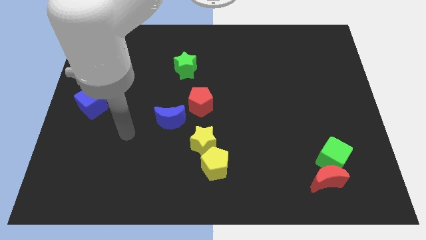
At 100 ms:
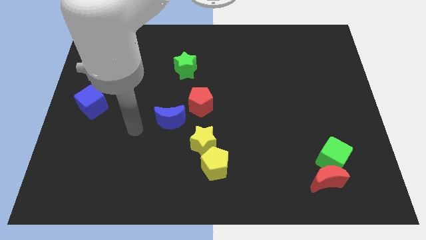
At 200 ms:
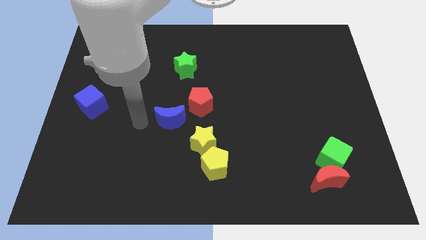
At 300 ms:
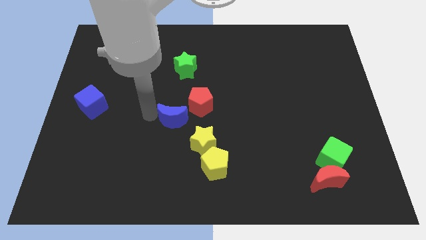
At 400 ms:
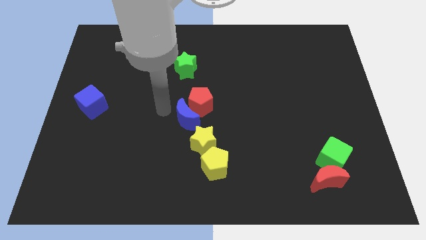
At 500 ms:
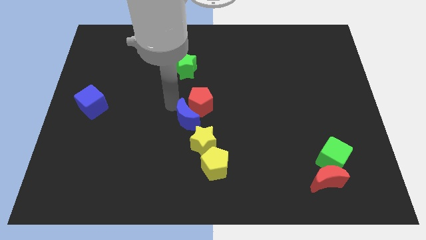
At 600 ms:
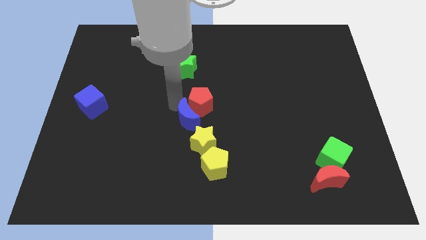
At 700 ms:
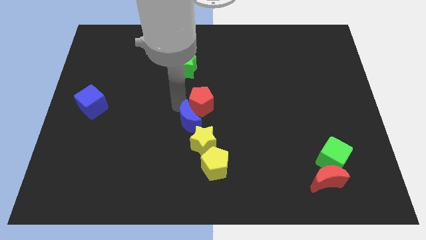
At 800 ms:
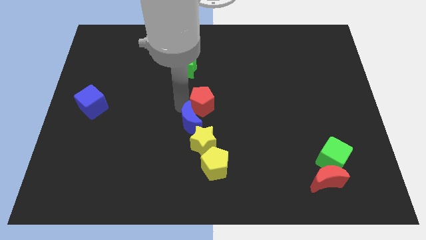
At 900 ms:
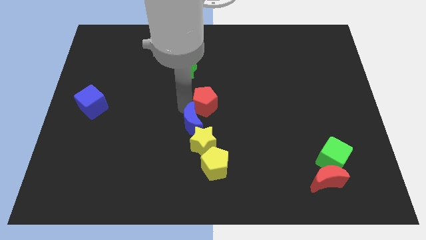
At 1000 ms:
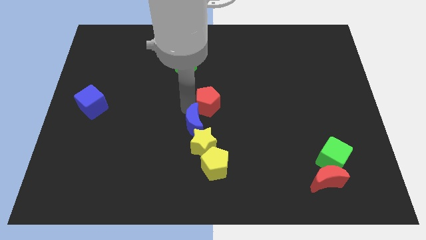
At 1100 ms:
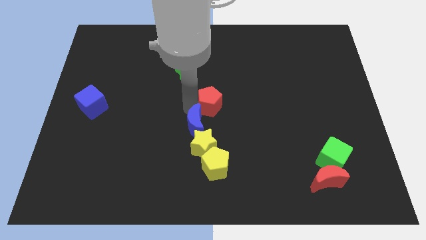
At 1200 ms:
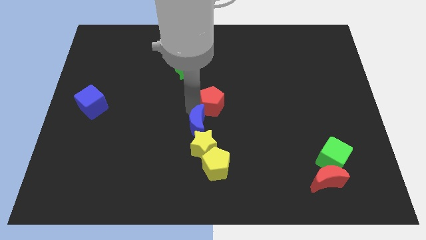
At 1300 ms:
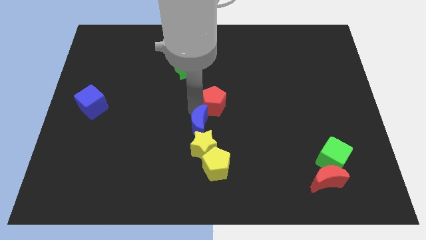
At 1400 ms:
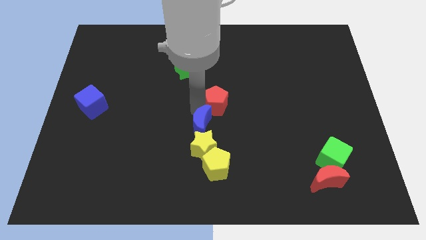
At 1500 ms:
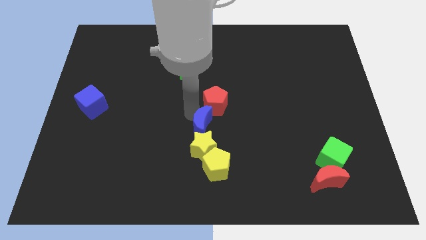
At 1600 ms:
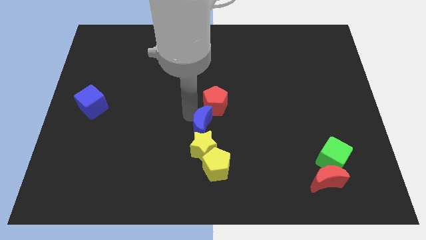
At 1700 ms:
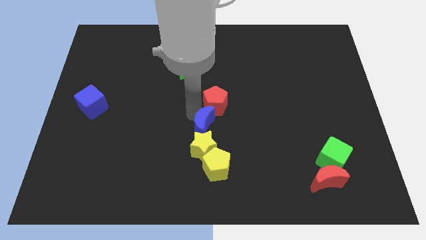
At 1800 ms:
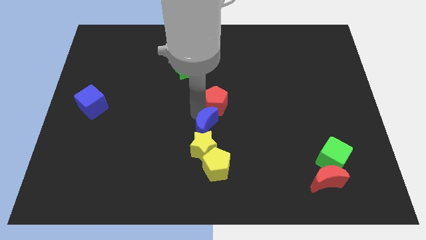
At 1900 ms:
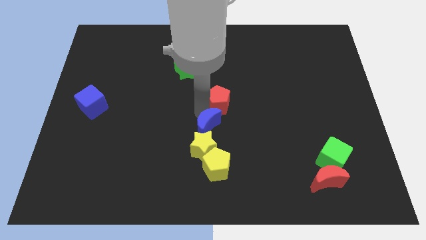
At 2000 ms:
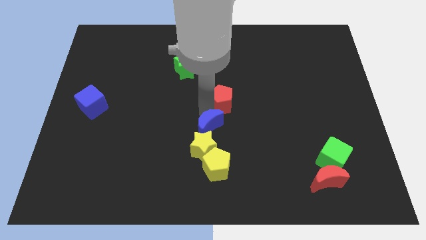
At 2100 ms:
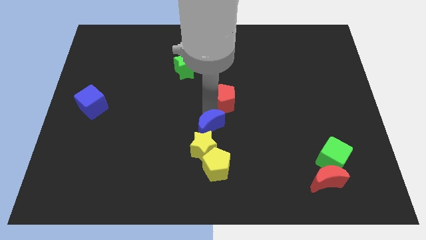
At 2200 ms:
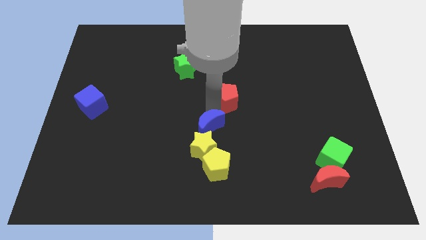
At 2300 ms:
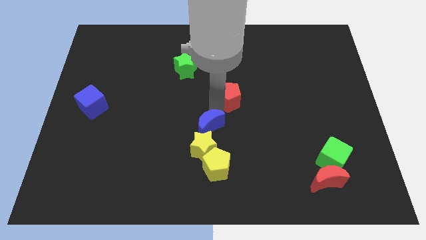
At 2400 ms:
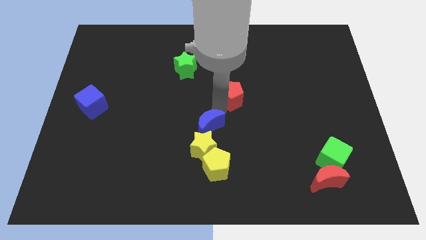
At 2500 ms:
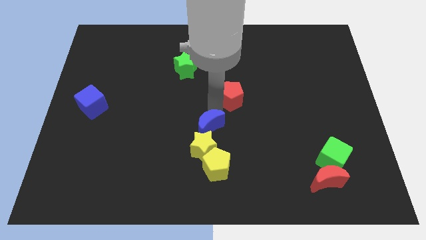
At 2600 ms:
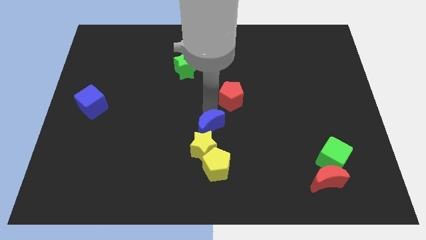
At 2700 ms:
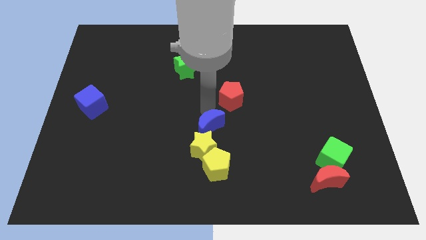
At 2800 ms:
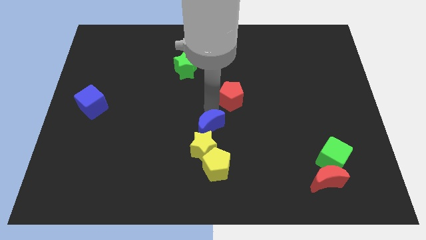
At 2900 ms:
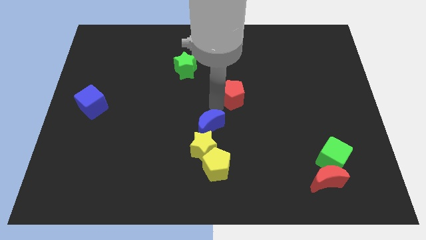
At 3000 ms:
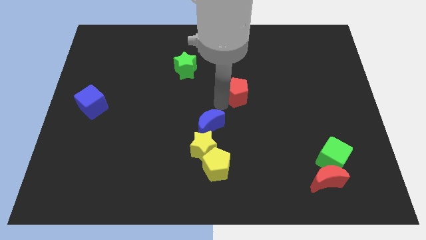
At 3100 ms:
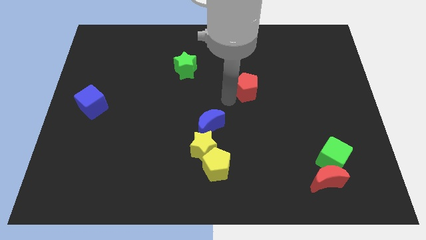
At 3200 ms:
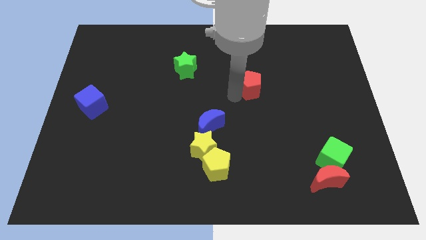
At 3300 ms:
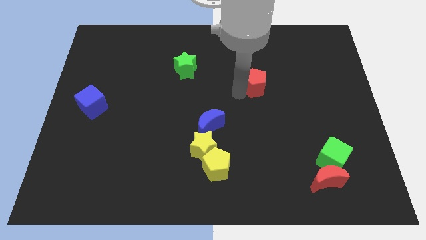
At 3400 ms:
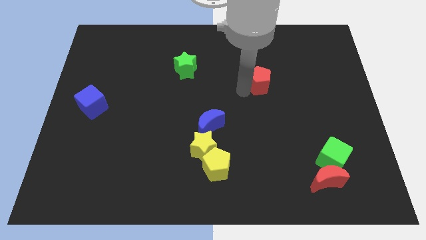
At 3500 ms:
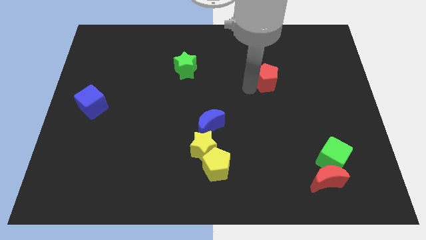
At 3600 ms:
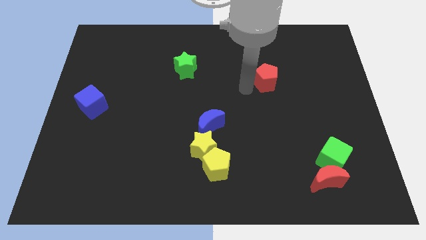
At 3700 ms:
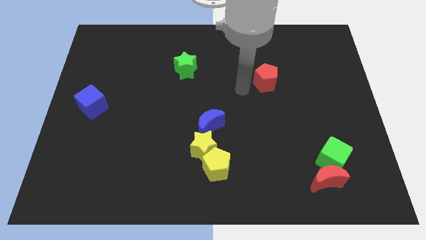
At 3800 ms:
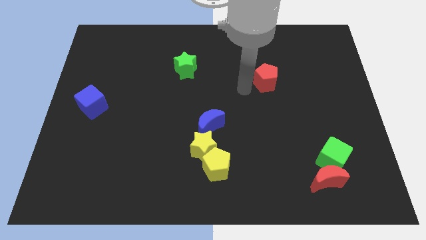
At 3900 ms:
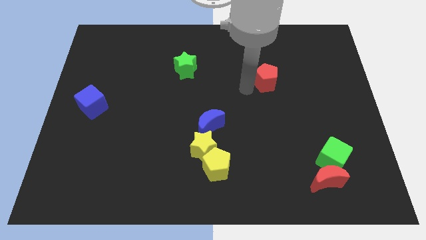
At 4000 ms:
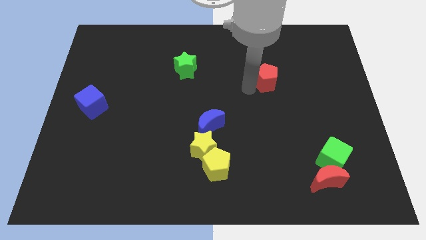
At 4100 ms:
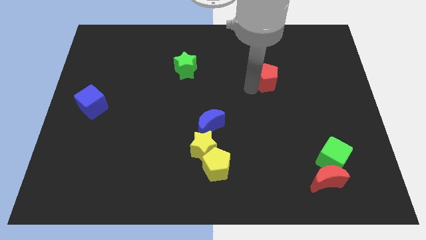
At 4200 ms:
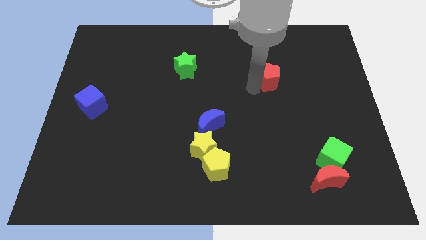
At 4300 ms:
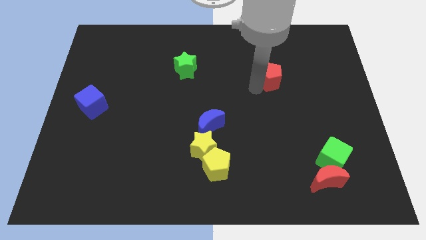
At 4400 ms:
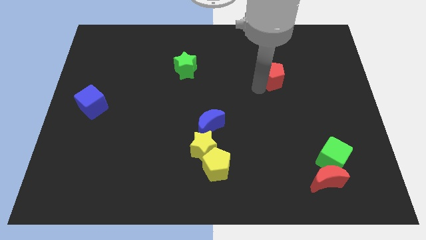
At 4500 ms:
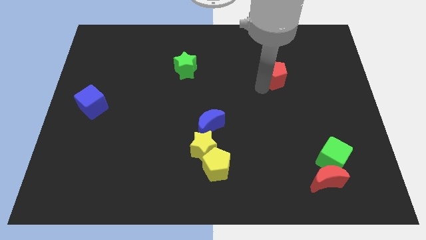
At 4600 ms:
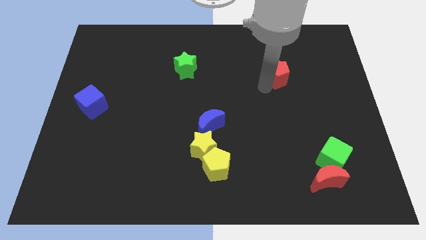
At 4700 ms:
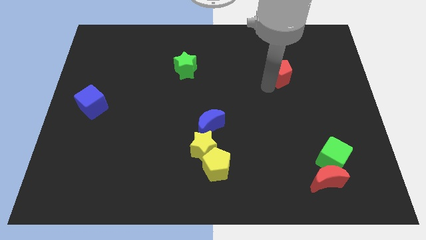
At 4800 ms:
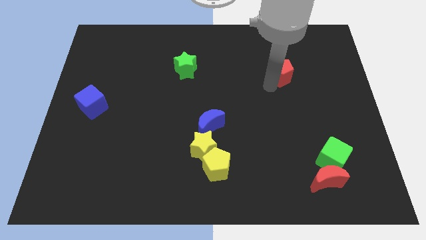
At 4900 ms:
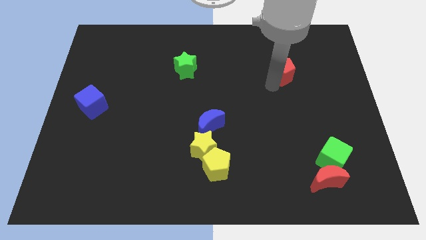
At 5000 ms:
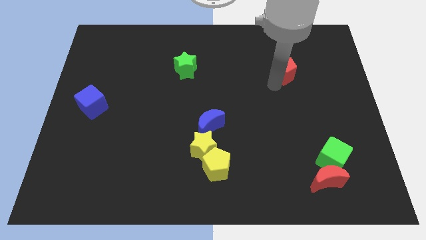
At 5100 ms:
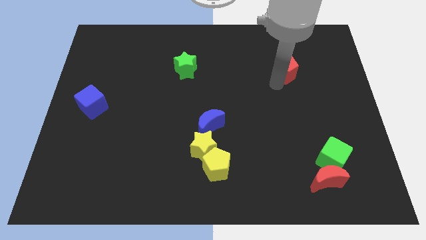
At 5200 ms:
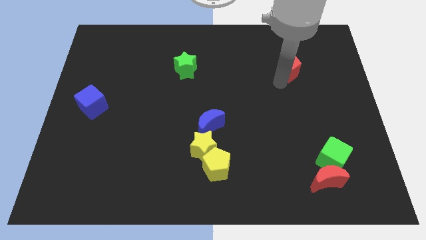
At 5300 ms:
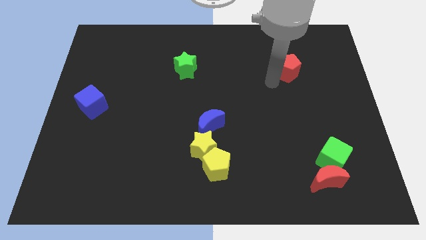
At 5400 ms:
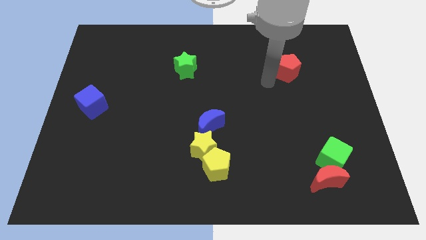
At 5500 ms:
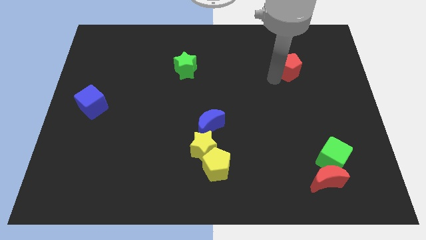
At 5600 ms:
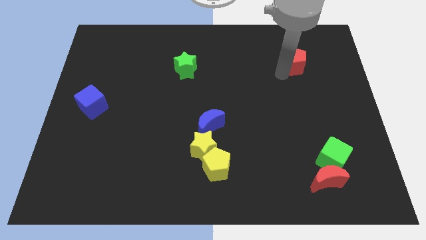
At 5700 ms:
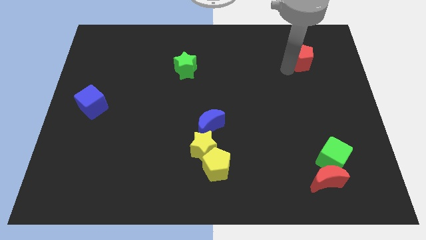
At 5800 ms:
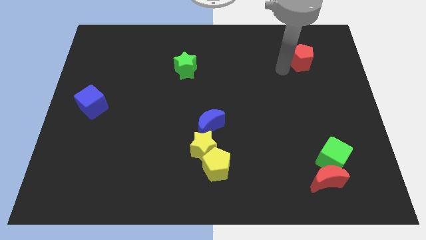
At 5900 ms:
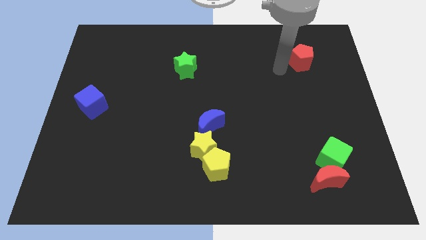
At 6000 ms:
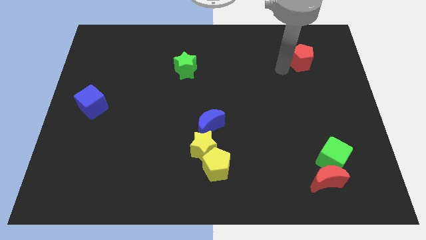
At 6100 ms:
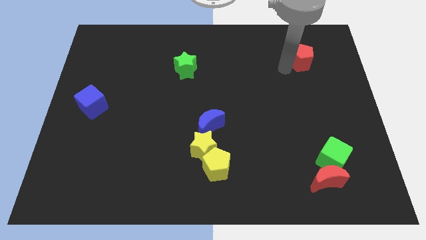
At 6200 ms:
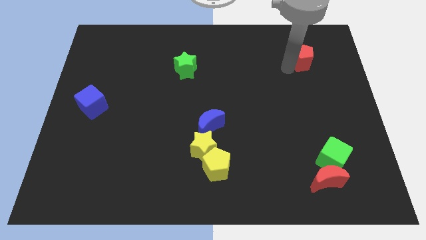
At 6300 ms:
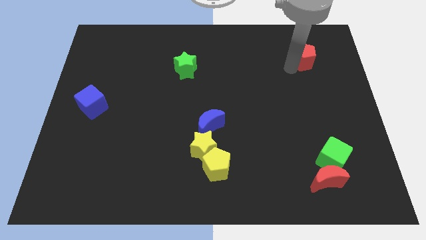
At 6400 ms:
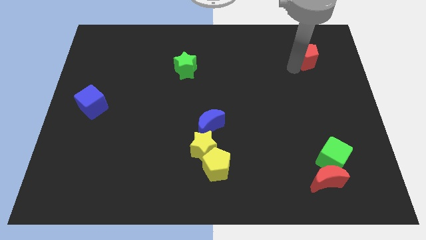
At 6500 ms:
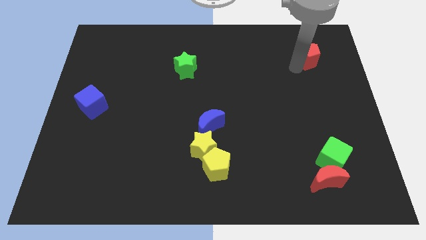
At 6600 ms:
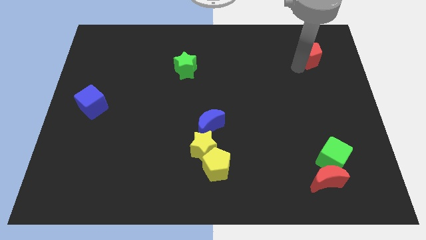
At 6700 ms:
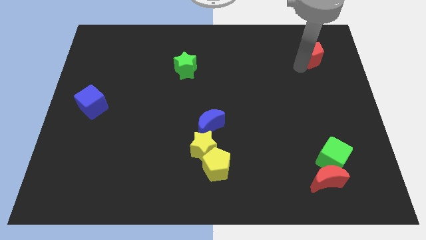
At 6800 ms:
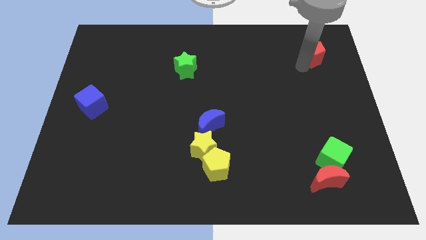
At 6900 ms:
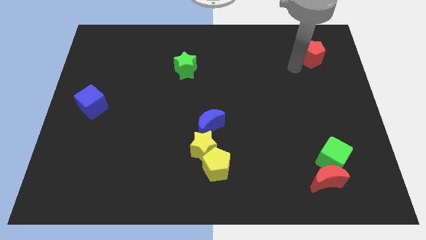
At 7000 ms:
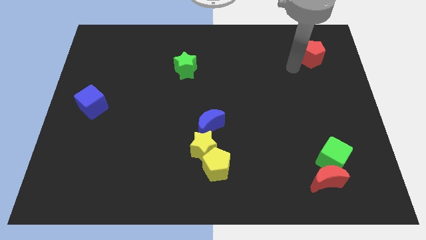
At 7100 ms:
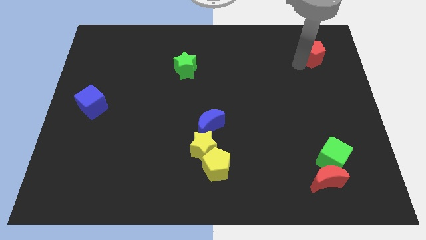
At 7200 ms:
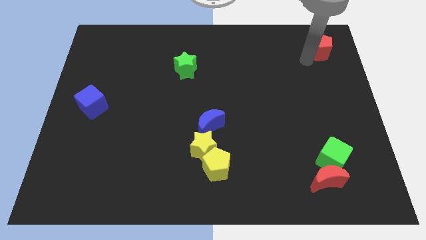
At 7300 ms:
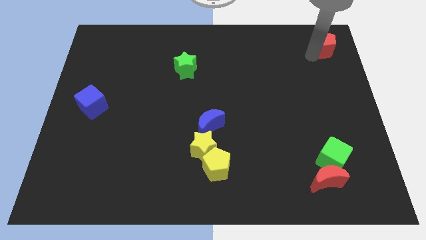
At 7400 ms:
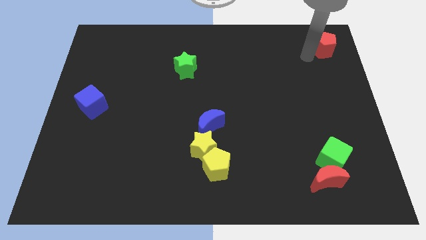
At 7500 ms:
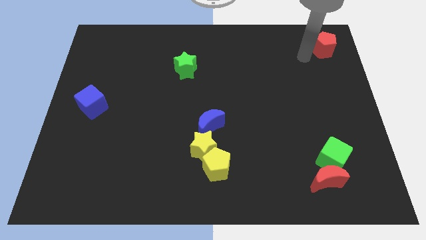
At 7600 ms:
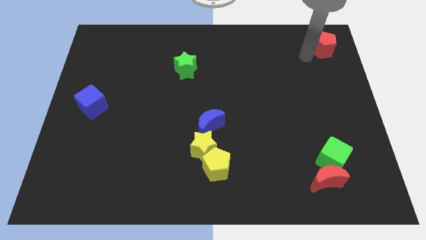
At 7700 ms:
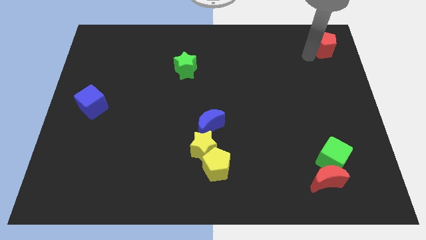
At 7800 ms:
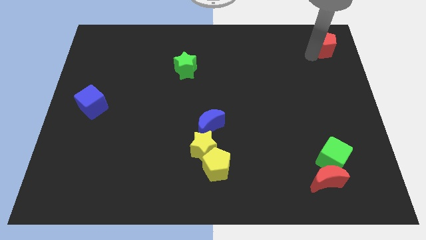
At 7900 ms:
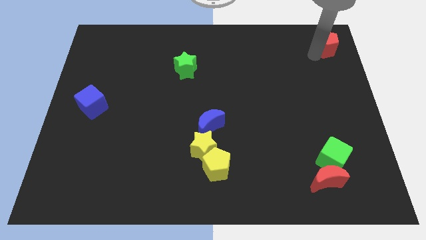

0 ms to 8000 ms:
put the red pentagon to the top right corner
